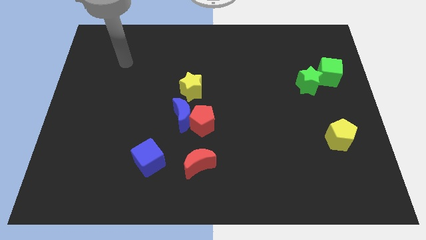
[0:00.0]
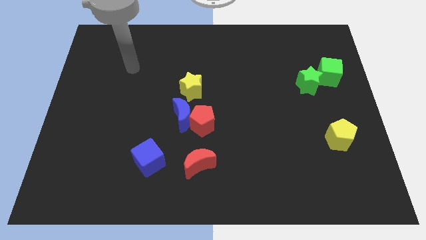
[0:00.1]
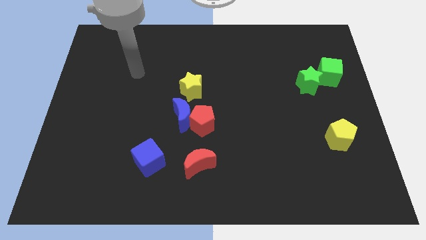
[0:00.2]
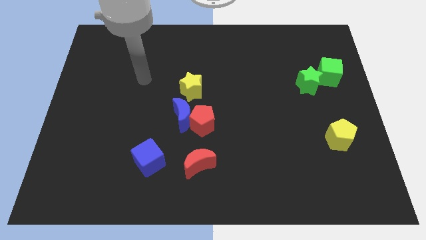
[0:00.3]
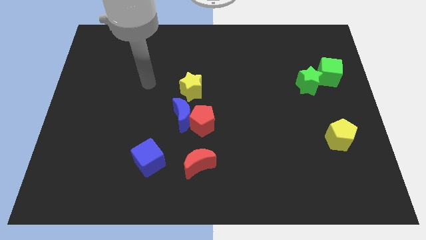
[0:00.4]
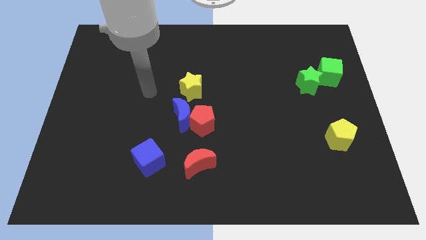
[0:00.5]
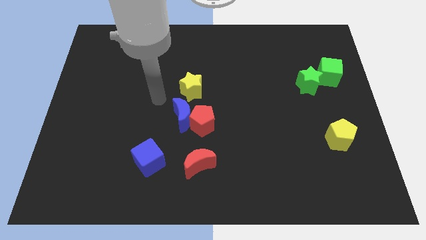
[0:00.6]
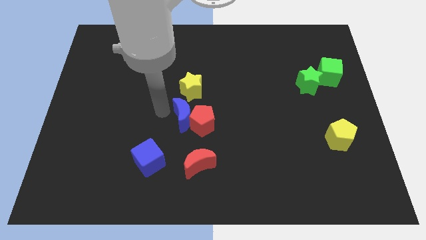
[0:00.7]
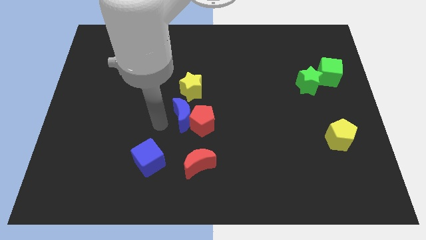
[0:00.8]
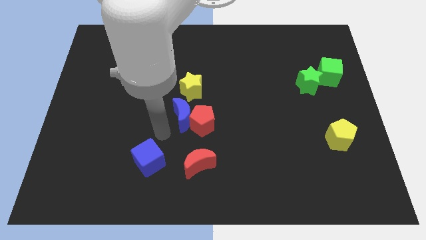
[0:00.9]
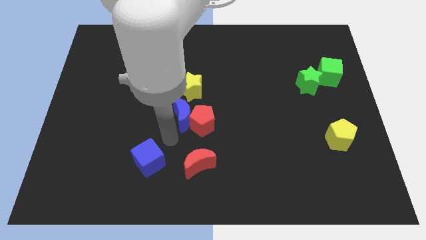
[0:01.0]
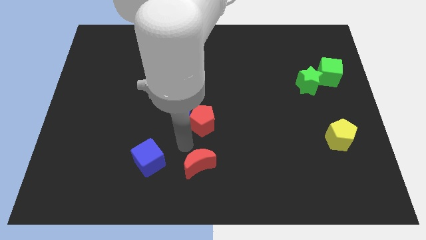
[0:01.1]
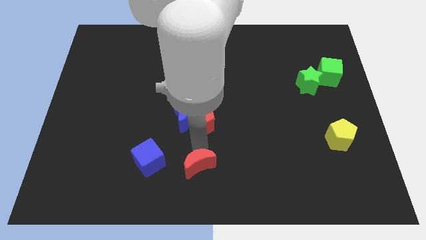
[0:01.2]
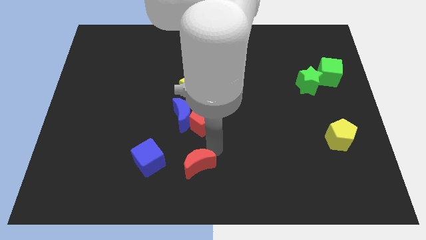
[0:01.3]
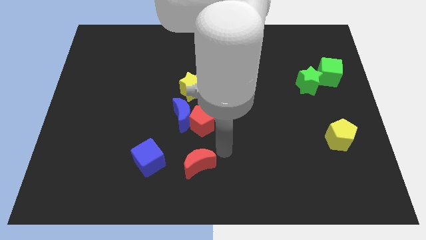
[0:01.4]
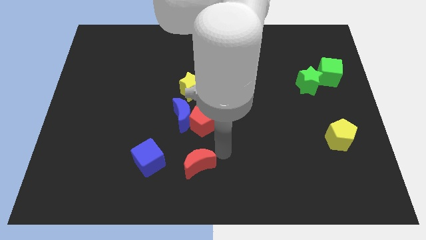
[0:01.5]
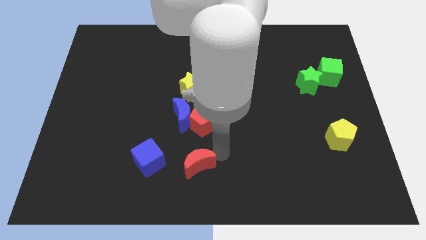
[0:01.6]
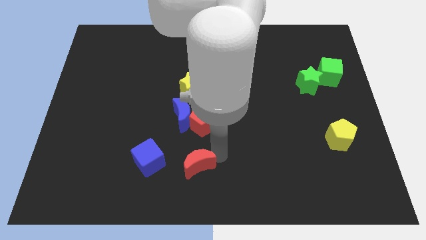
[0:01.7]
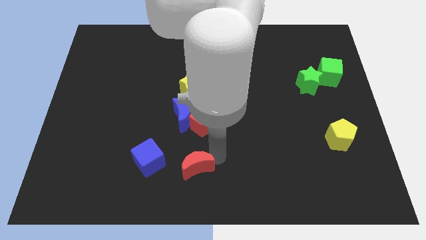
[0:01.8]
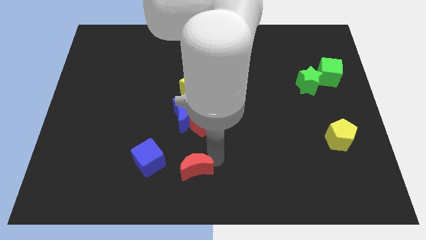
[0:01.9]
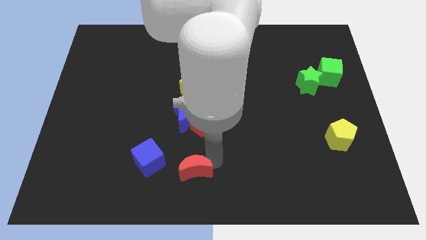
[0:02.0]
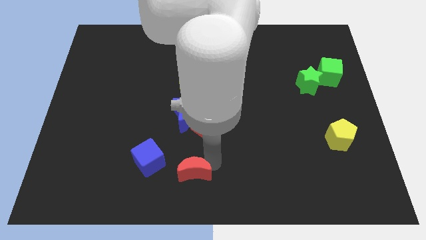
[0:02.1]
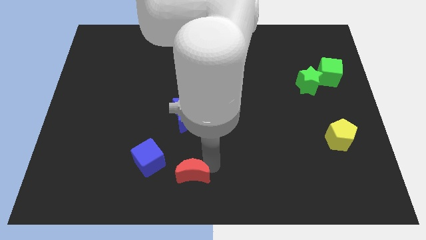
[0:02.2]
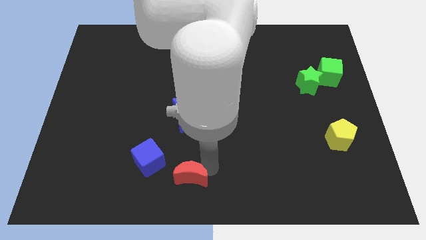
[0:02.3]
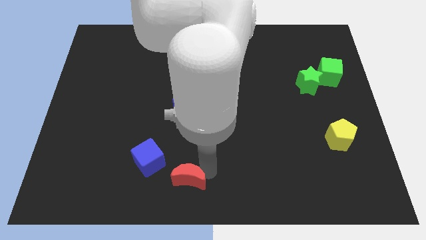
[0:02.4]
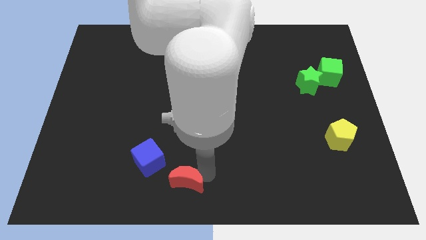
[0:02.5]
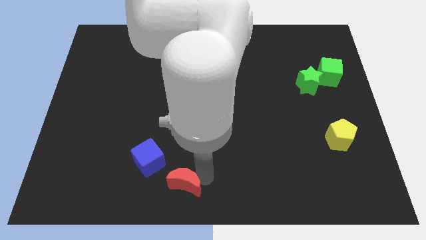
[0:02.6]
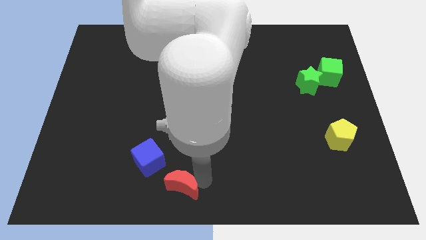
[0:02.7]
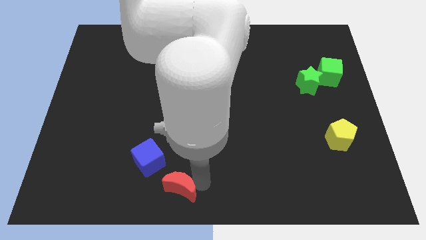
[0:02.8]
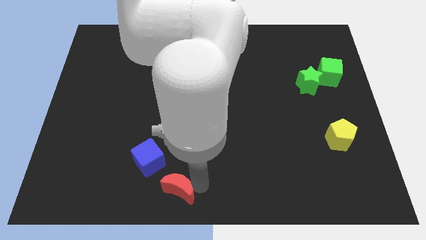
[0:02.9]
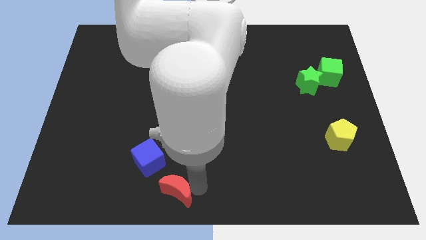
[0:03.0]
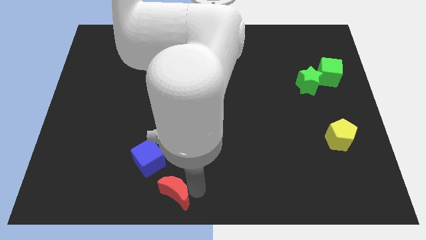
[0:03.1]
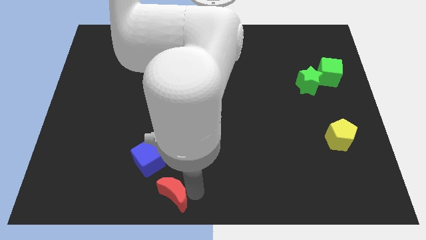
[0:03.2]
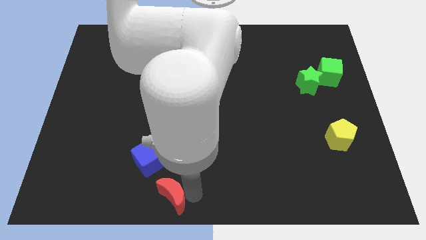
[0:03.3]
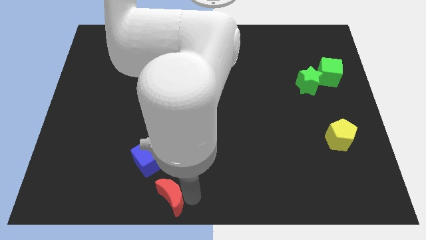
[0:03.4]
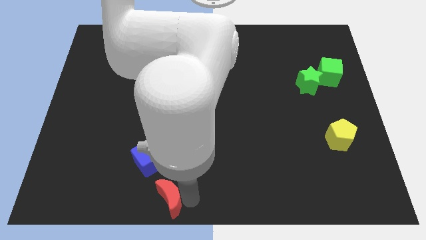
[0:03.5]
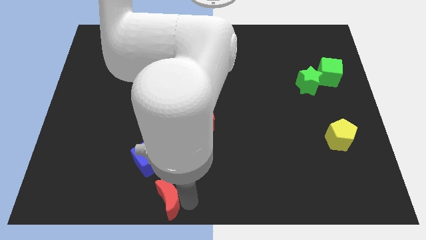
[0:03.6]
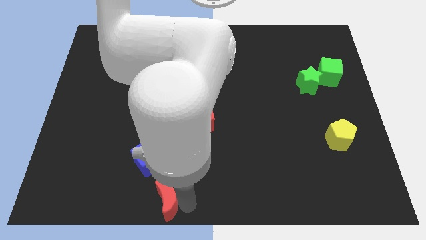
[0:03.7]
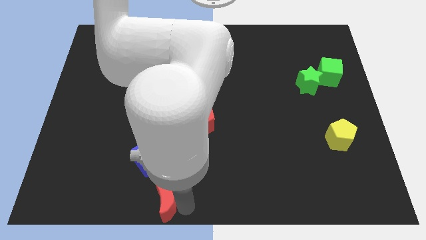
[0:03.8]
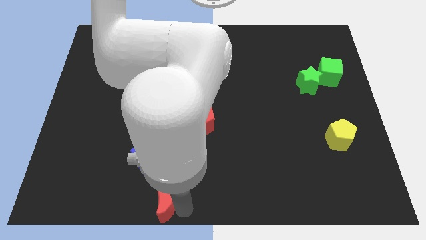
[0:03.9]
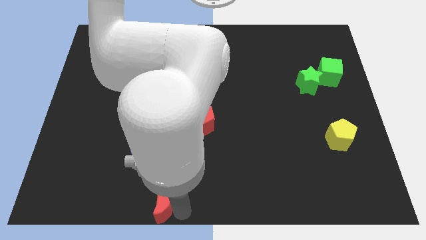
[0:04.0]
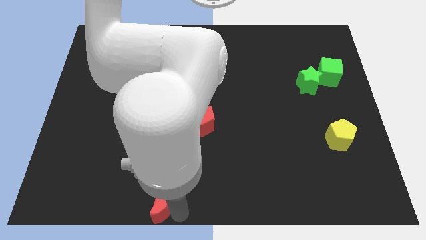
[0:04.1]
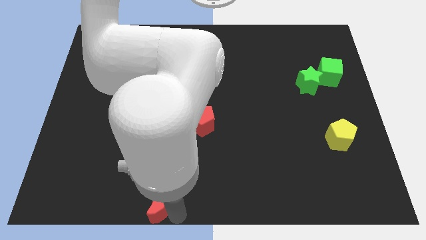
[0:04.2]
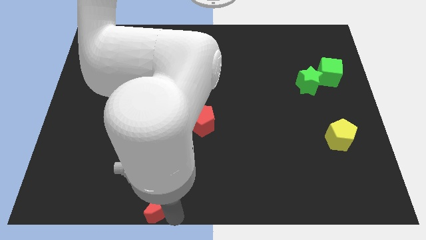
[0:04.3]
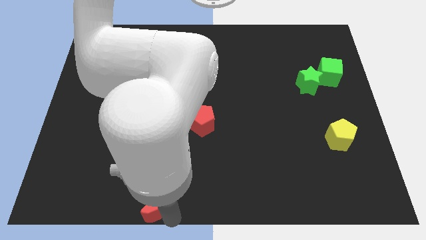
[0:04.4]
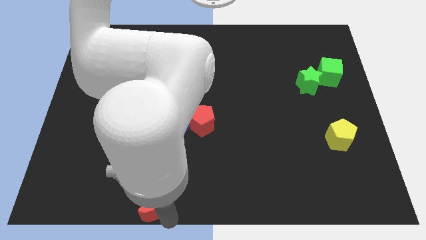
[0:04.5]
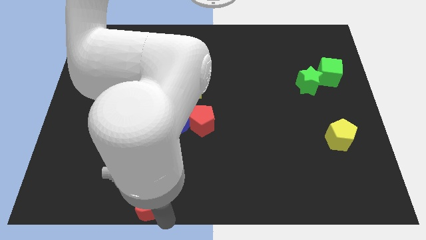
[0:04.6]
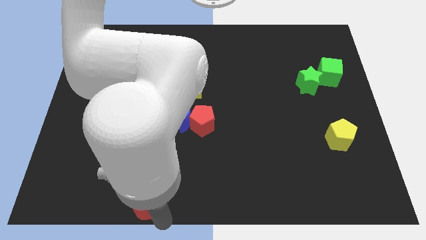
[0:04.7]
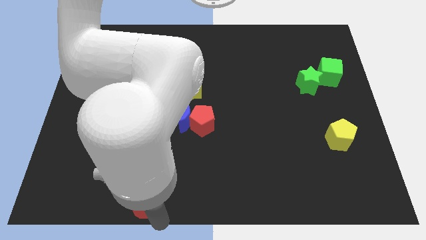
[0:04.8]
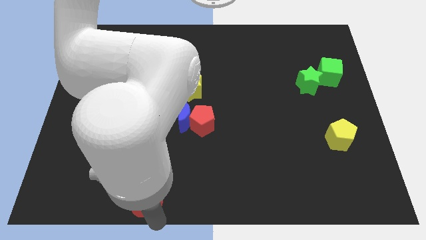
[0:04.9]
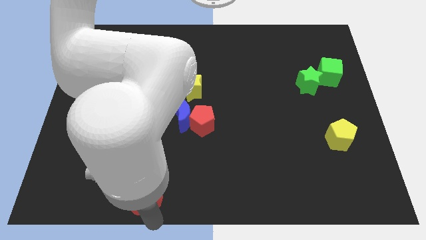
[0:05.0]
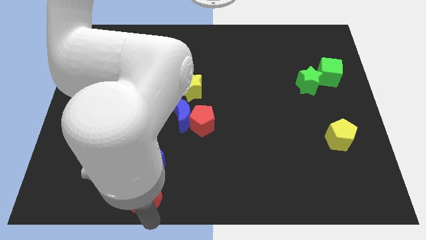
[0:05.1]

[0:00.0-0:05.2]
slide the red moon slightly left

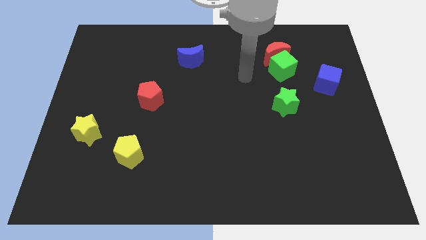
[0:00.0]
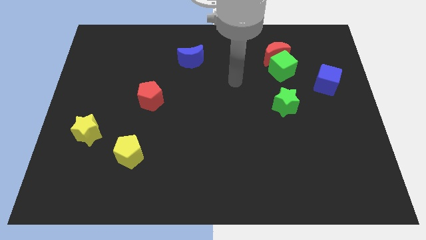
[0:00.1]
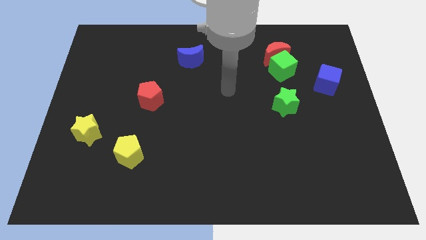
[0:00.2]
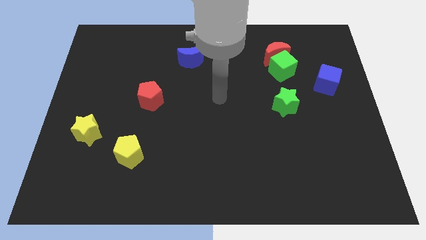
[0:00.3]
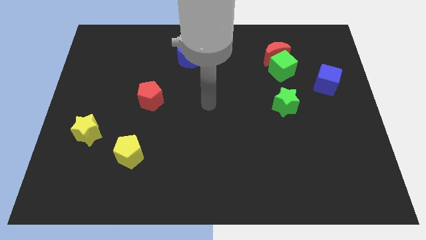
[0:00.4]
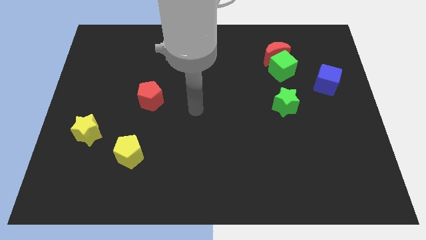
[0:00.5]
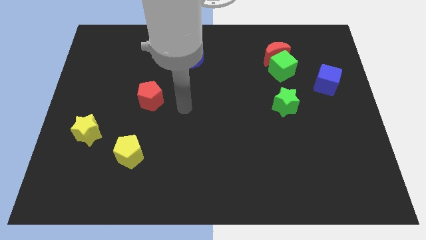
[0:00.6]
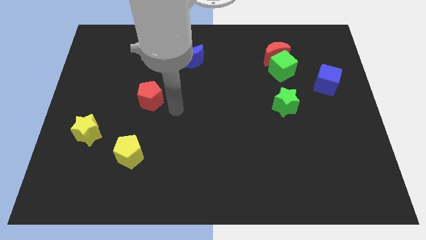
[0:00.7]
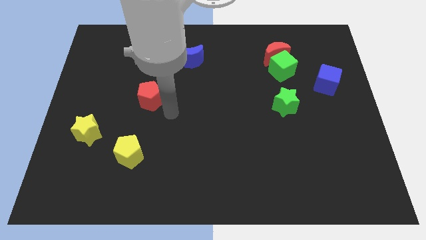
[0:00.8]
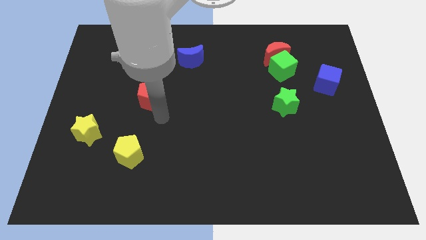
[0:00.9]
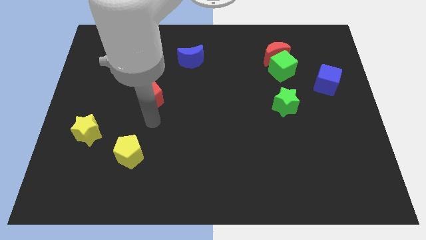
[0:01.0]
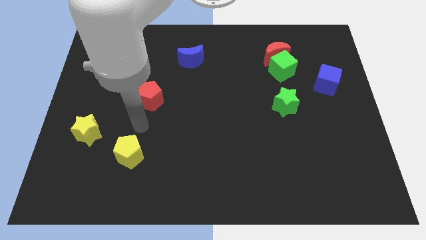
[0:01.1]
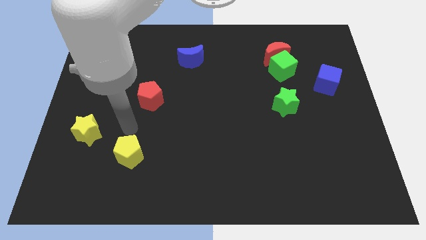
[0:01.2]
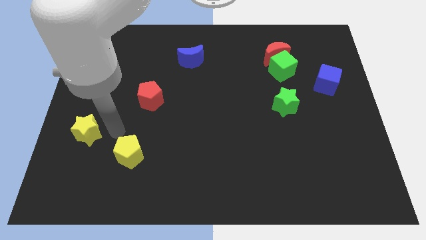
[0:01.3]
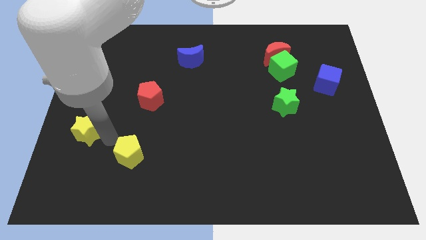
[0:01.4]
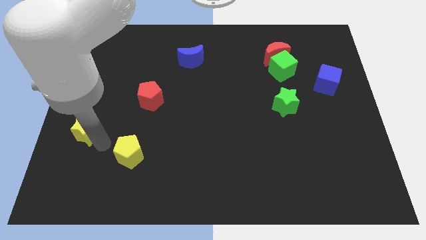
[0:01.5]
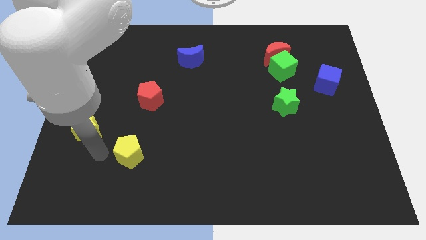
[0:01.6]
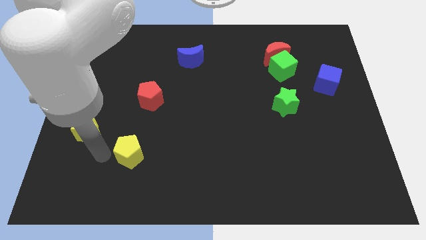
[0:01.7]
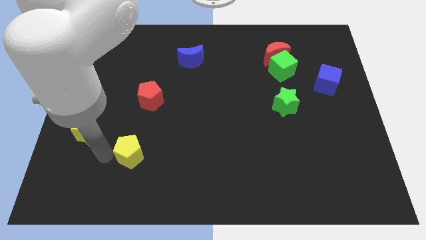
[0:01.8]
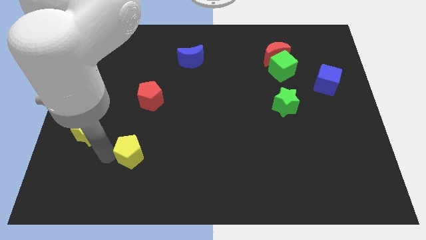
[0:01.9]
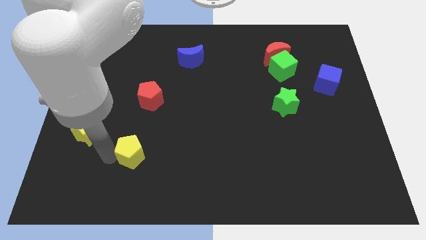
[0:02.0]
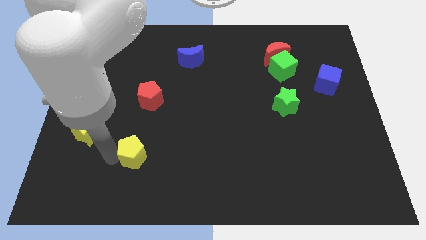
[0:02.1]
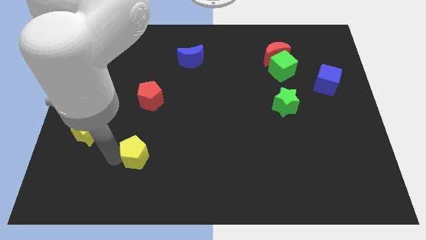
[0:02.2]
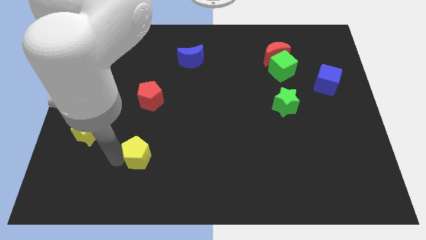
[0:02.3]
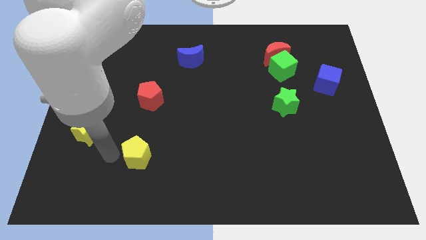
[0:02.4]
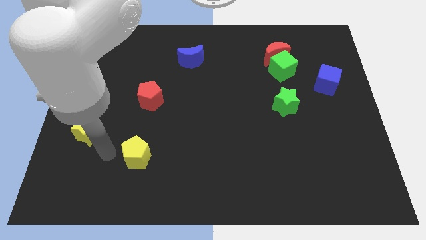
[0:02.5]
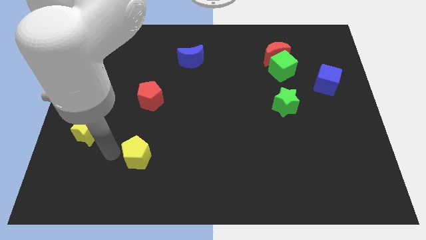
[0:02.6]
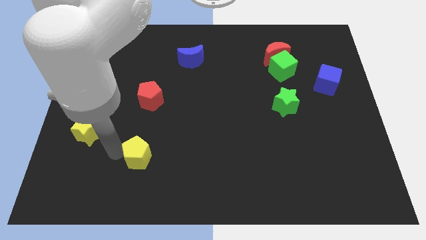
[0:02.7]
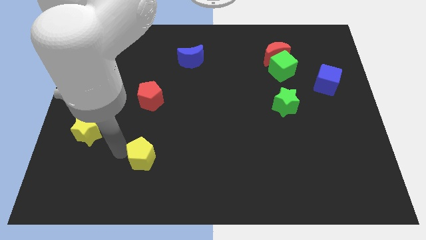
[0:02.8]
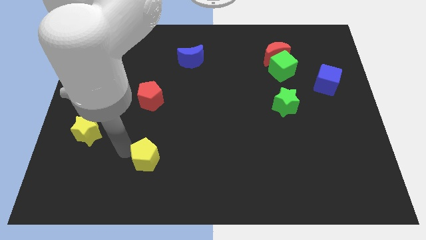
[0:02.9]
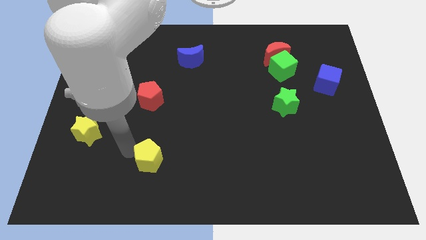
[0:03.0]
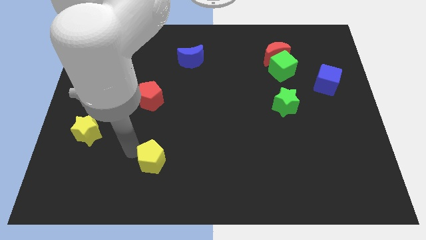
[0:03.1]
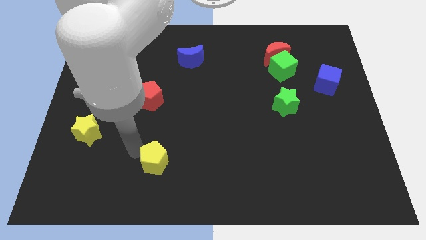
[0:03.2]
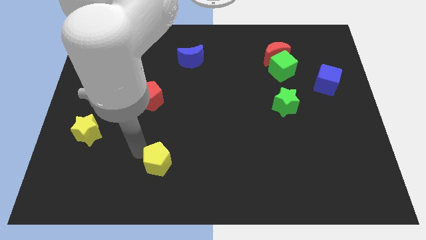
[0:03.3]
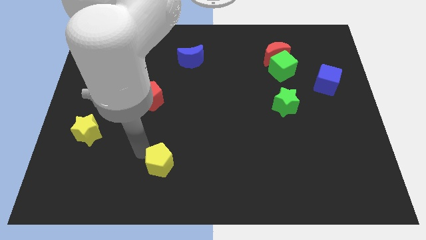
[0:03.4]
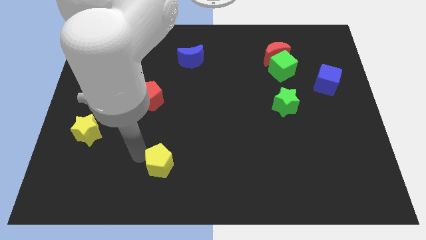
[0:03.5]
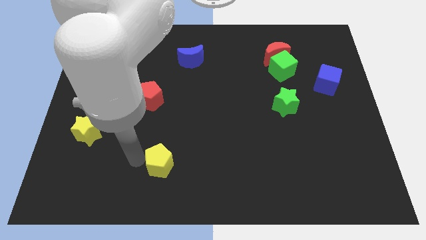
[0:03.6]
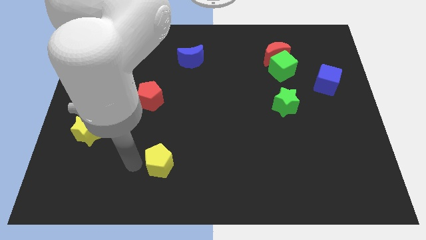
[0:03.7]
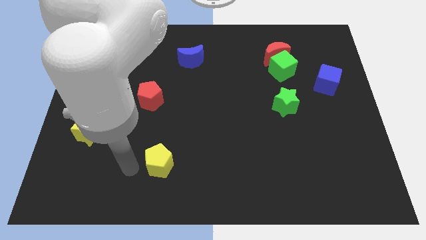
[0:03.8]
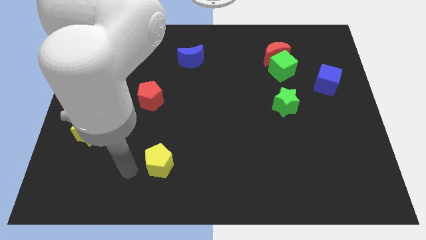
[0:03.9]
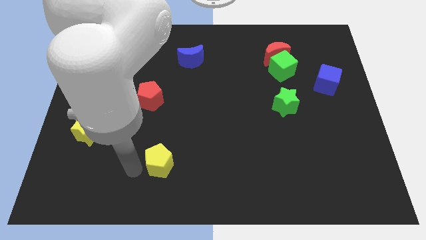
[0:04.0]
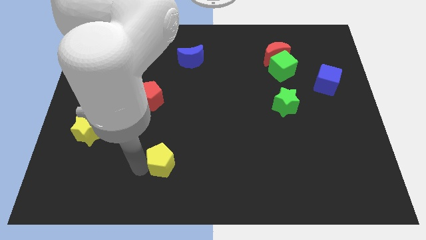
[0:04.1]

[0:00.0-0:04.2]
push the yellow pentagon to the right somewhat
